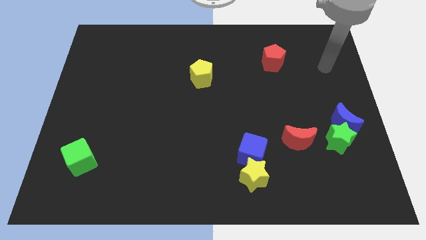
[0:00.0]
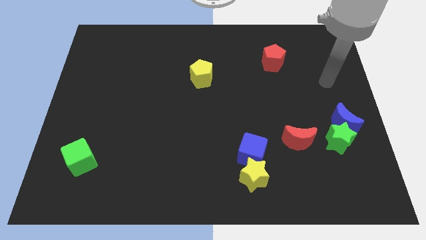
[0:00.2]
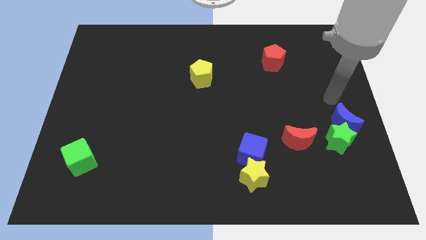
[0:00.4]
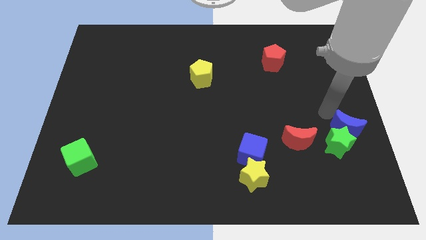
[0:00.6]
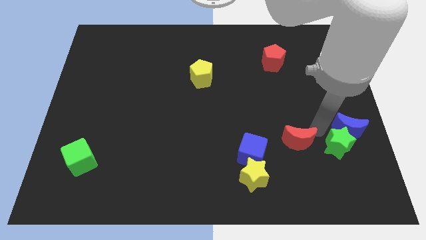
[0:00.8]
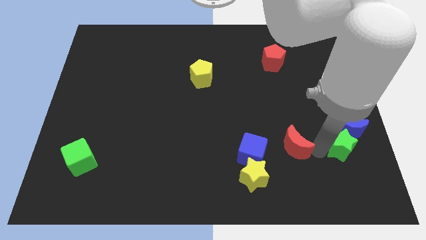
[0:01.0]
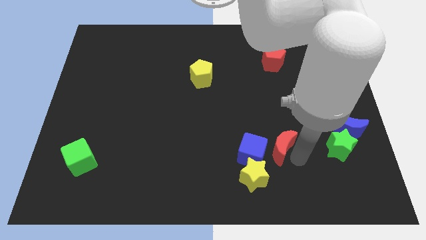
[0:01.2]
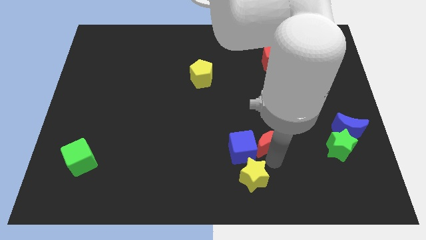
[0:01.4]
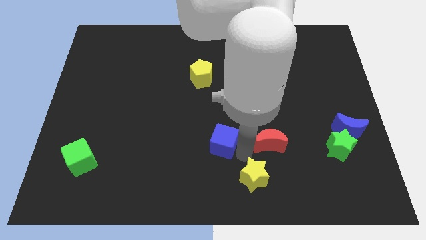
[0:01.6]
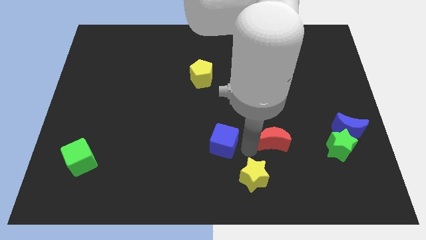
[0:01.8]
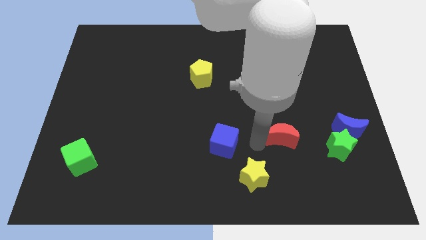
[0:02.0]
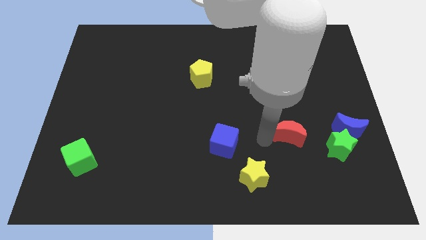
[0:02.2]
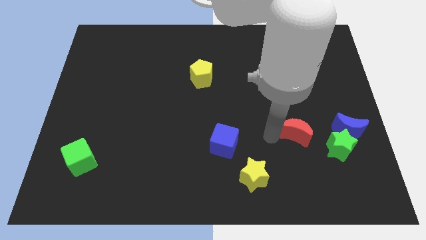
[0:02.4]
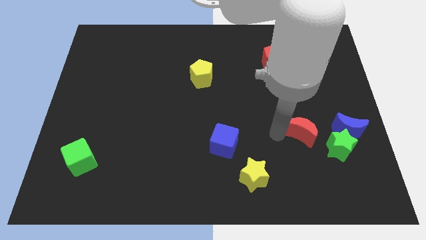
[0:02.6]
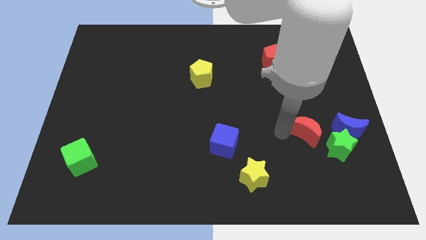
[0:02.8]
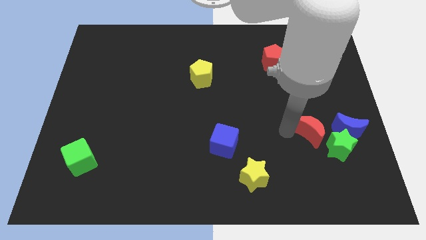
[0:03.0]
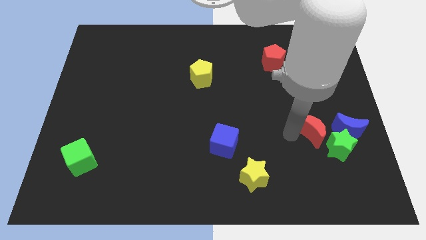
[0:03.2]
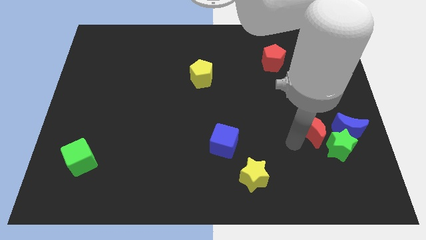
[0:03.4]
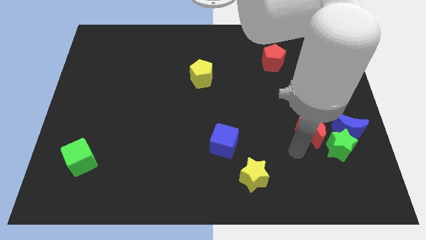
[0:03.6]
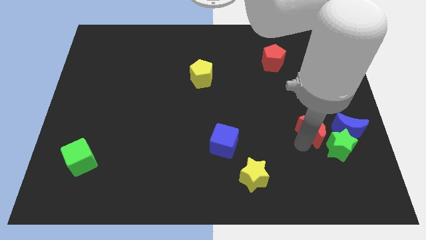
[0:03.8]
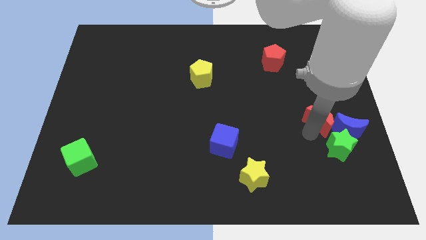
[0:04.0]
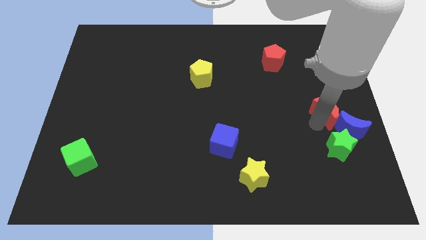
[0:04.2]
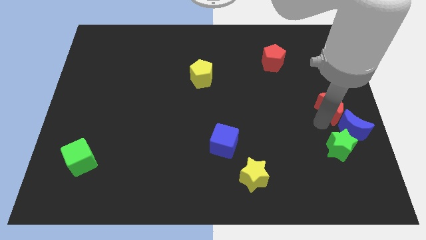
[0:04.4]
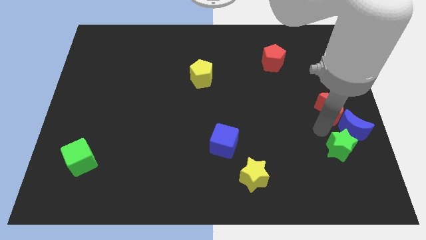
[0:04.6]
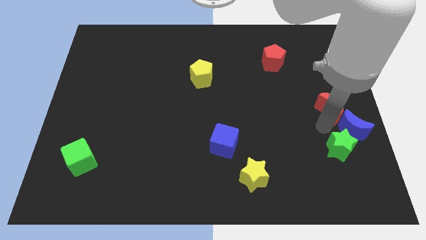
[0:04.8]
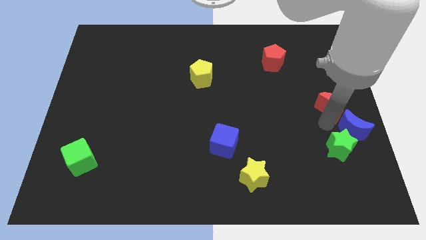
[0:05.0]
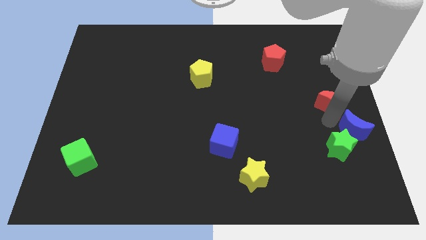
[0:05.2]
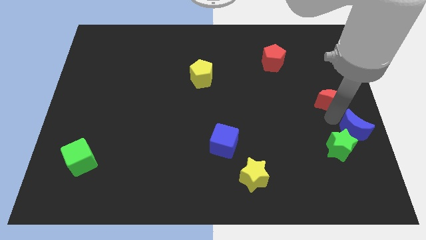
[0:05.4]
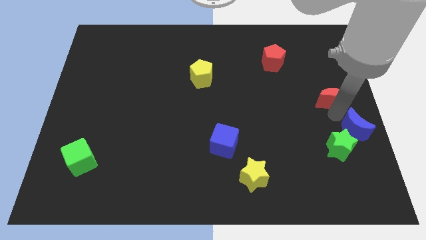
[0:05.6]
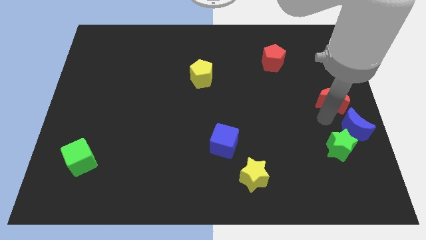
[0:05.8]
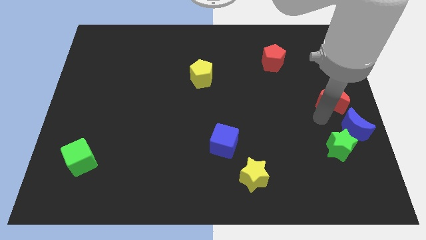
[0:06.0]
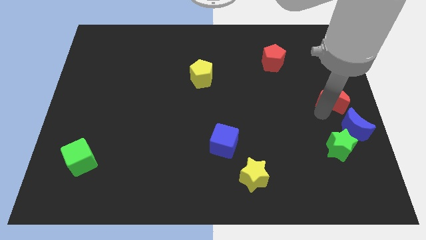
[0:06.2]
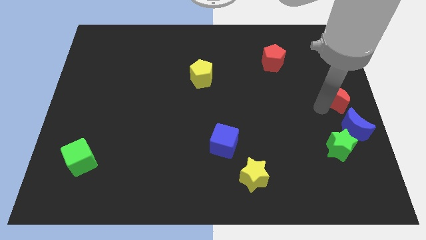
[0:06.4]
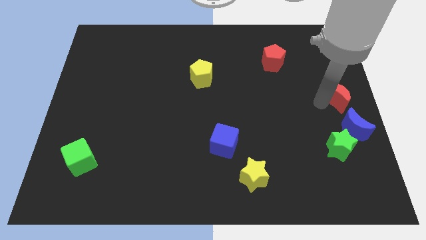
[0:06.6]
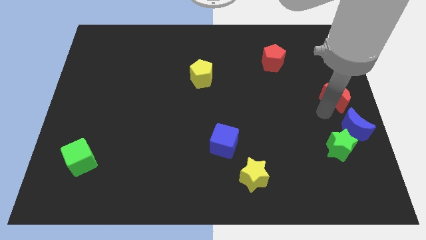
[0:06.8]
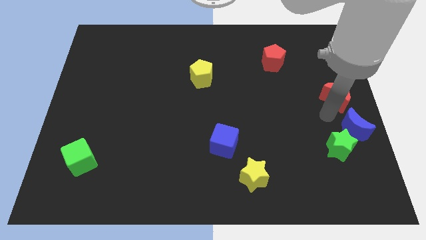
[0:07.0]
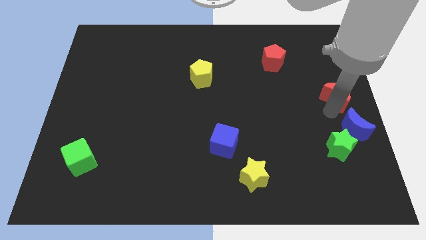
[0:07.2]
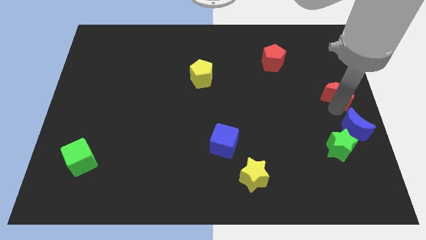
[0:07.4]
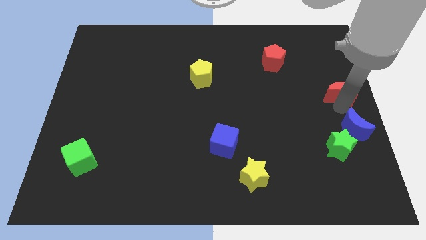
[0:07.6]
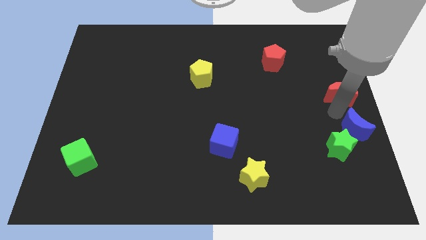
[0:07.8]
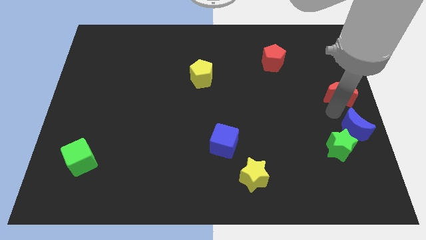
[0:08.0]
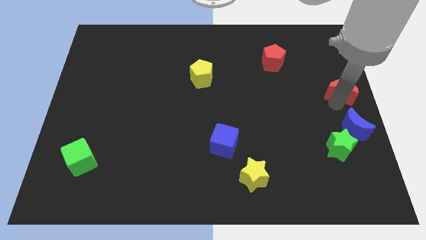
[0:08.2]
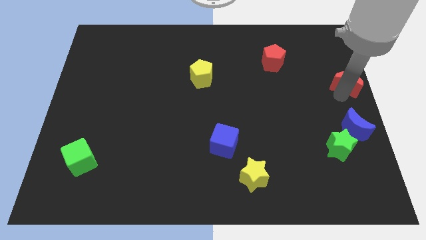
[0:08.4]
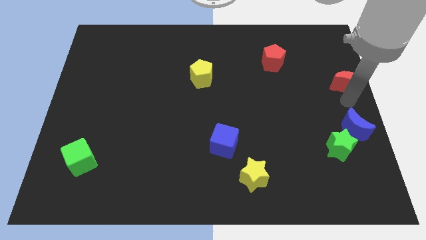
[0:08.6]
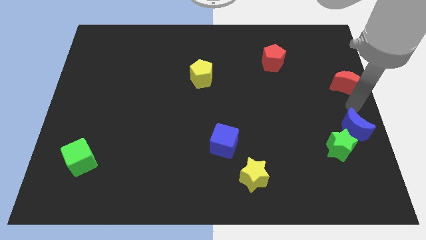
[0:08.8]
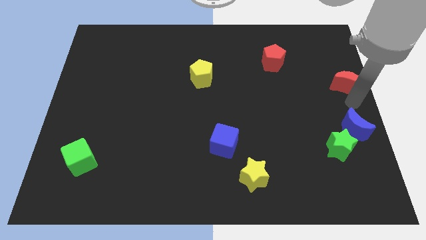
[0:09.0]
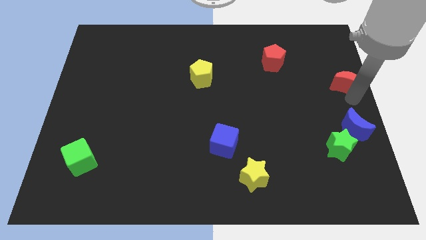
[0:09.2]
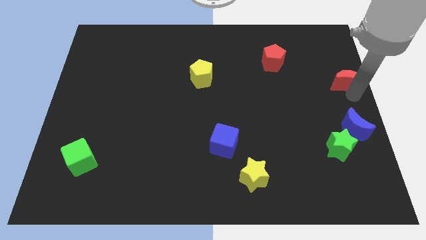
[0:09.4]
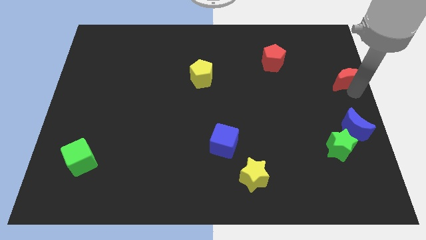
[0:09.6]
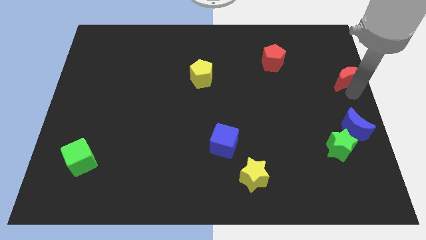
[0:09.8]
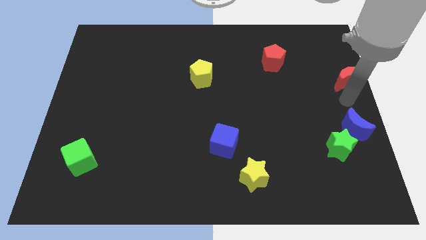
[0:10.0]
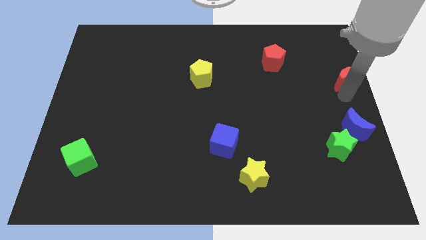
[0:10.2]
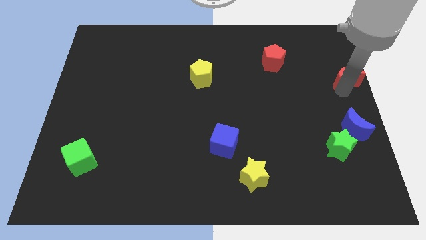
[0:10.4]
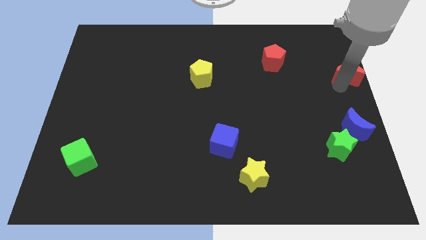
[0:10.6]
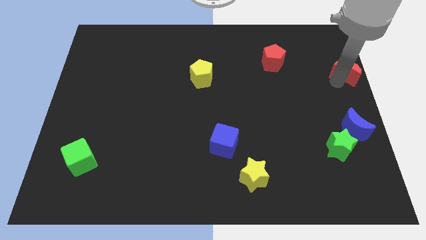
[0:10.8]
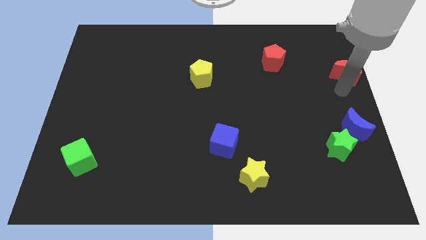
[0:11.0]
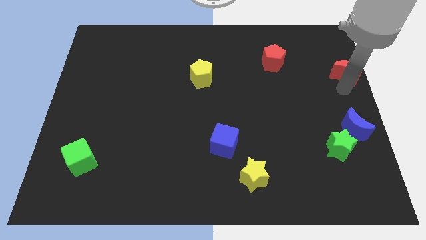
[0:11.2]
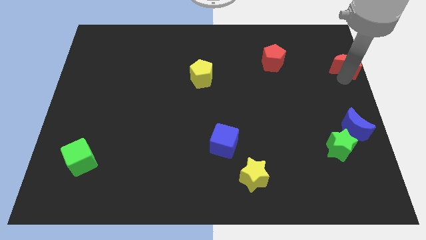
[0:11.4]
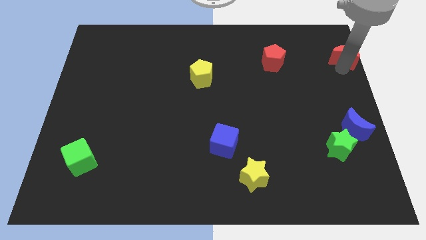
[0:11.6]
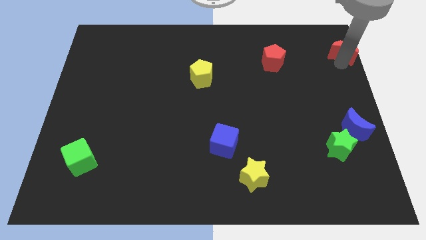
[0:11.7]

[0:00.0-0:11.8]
slide the red moon to the top right corner
